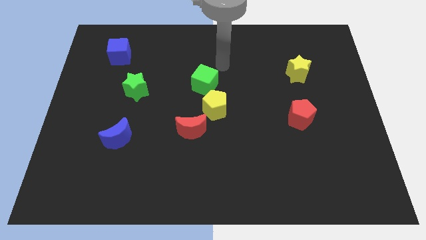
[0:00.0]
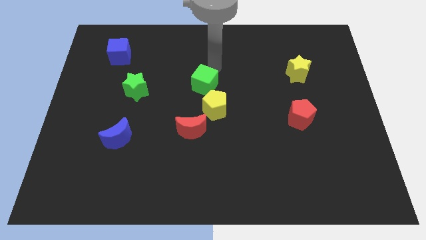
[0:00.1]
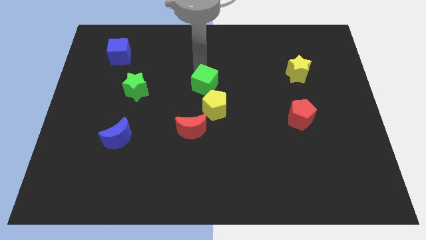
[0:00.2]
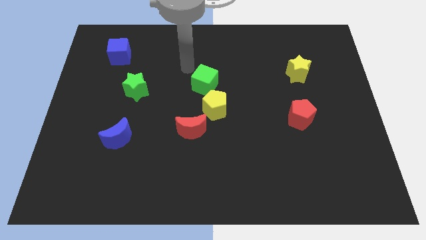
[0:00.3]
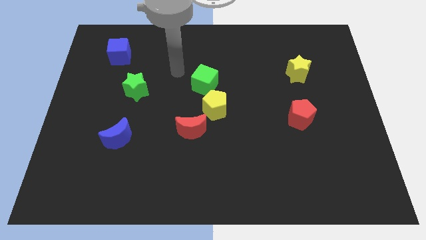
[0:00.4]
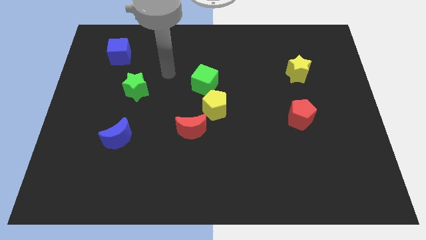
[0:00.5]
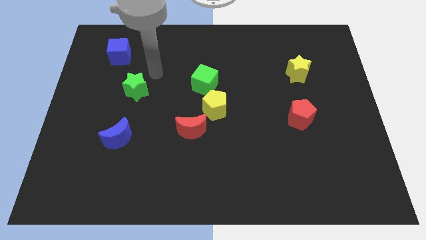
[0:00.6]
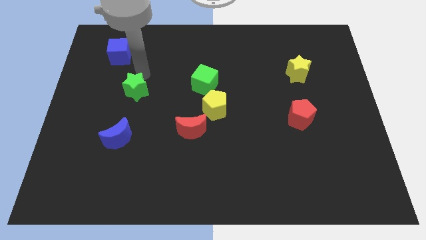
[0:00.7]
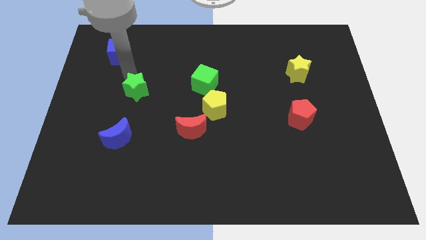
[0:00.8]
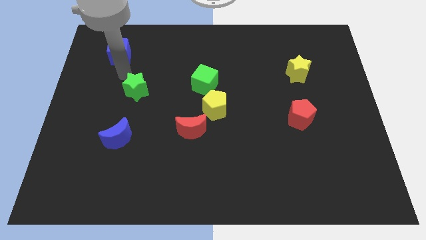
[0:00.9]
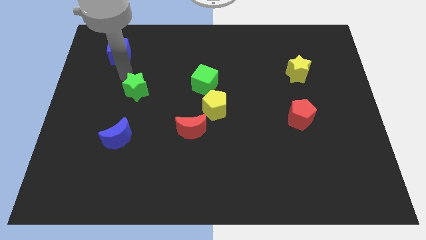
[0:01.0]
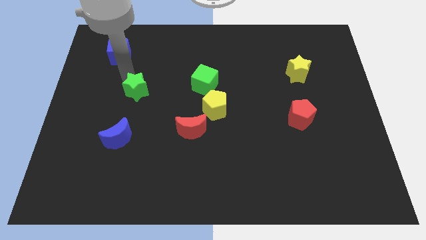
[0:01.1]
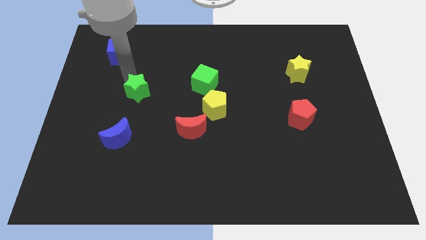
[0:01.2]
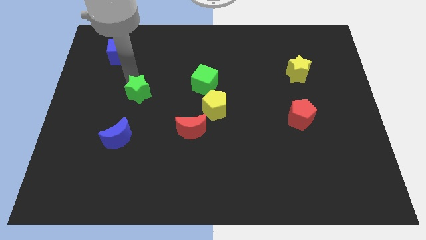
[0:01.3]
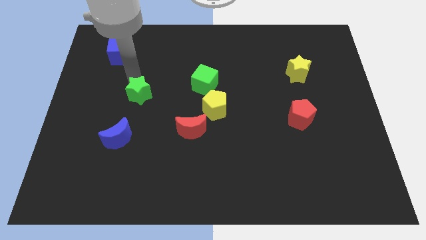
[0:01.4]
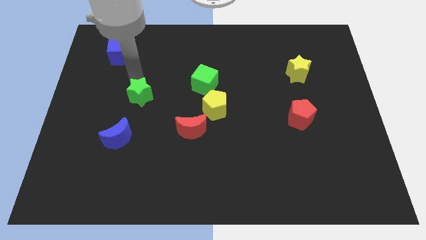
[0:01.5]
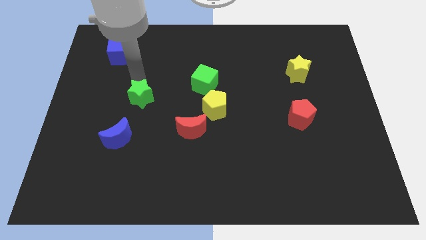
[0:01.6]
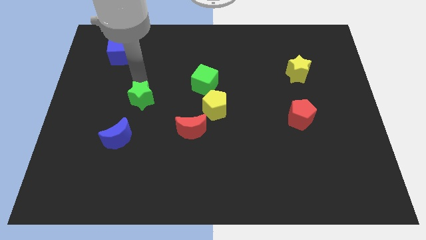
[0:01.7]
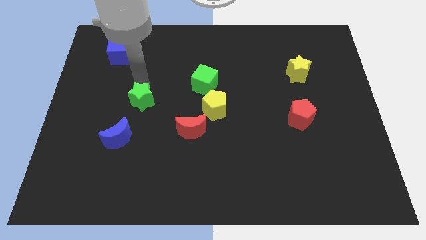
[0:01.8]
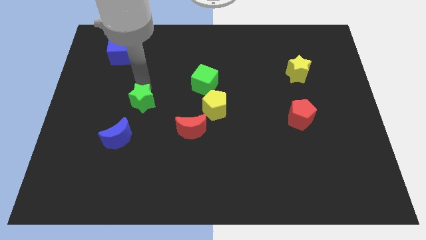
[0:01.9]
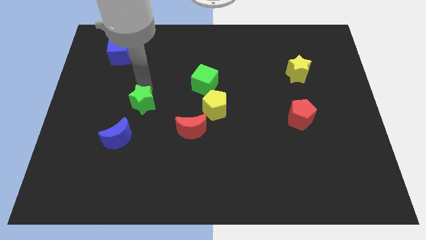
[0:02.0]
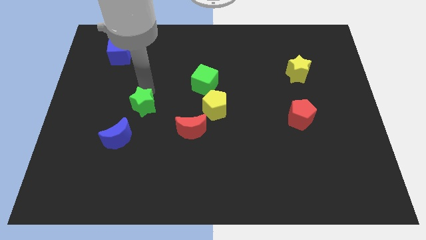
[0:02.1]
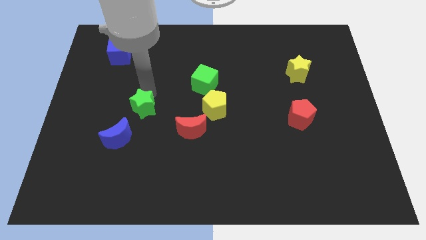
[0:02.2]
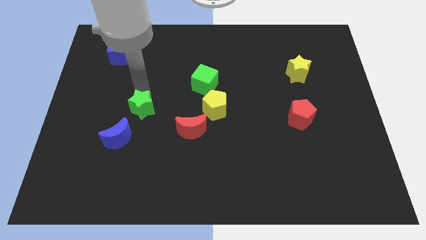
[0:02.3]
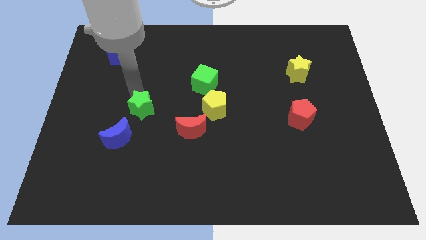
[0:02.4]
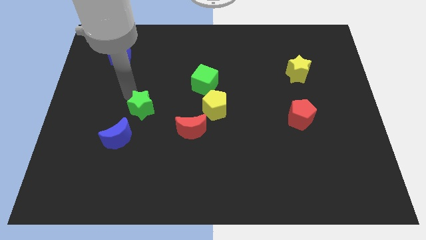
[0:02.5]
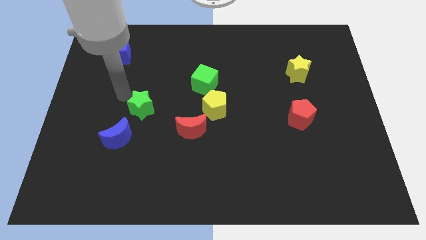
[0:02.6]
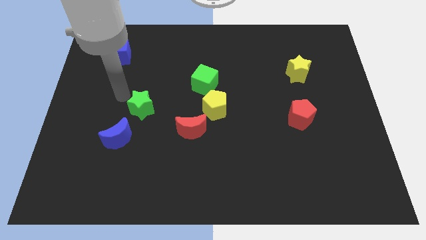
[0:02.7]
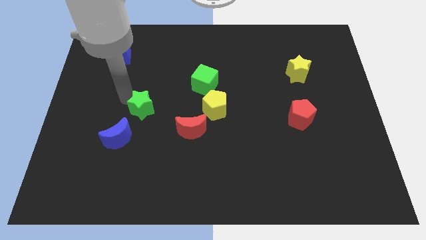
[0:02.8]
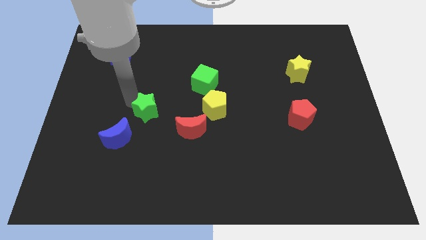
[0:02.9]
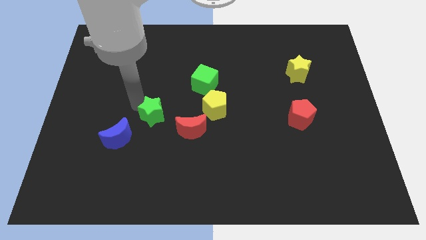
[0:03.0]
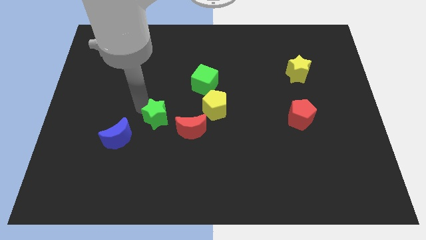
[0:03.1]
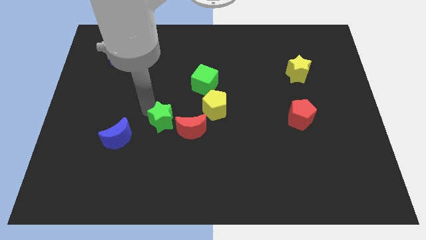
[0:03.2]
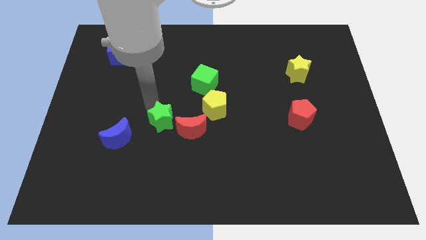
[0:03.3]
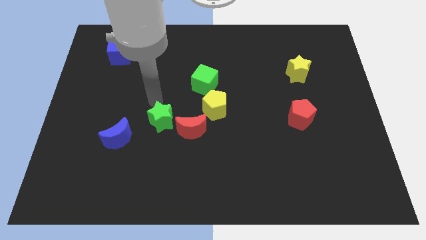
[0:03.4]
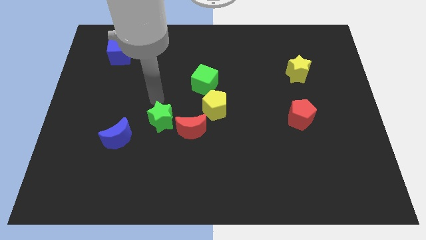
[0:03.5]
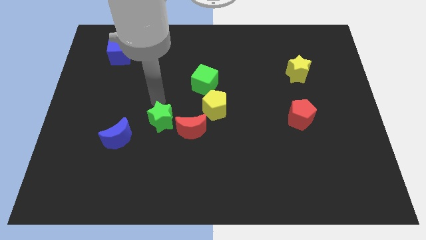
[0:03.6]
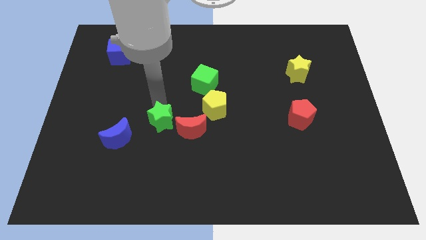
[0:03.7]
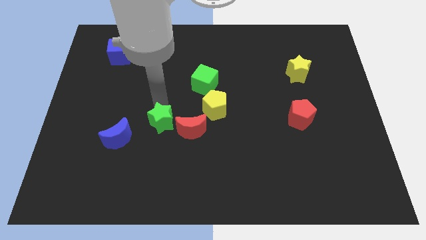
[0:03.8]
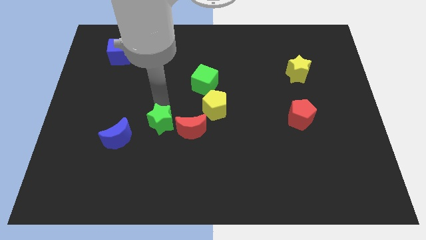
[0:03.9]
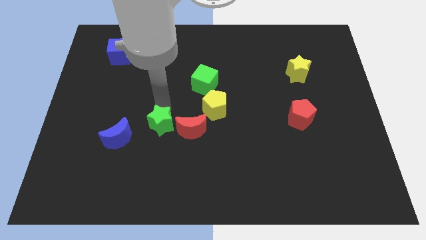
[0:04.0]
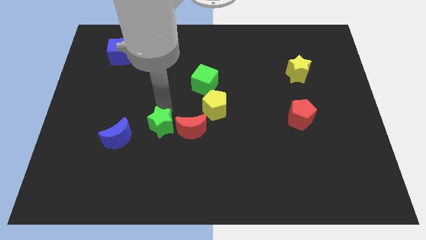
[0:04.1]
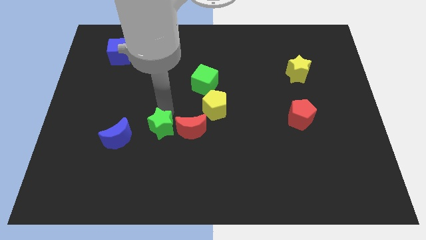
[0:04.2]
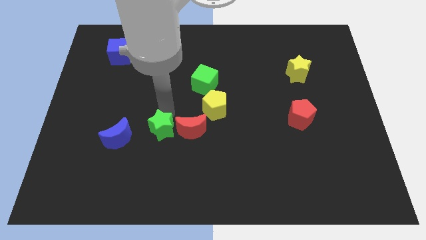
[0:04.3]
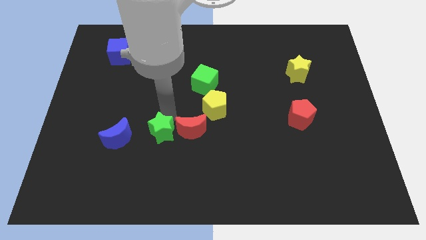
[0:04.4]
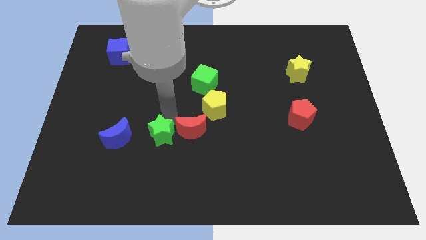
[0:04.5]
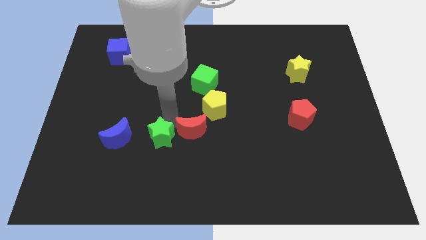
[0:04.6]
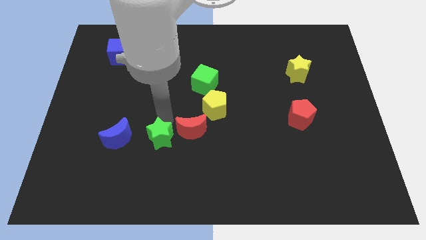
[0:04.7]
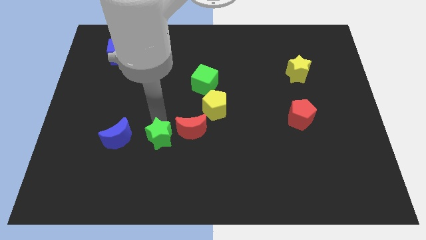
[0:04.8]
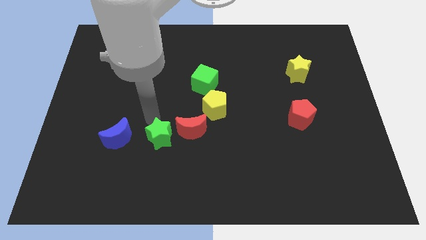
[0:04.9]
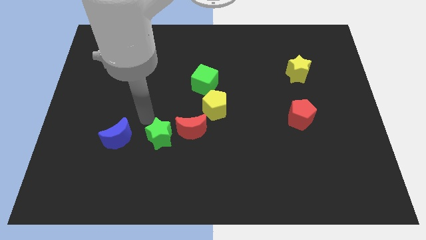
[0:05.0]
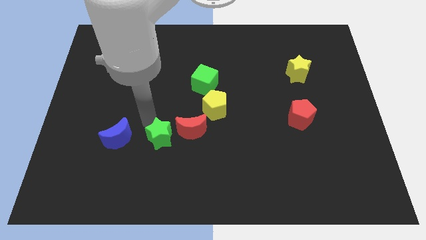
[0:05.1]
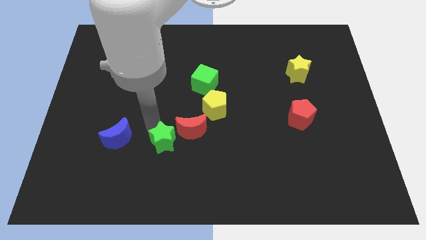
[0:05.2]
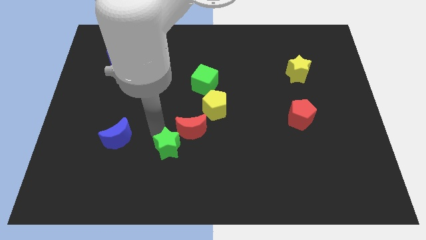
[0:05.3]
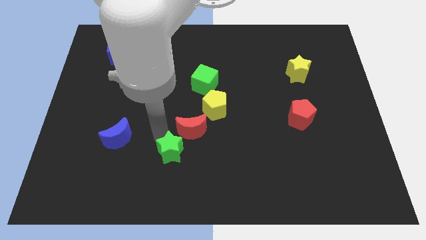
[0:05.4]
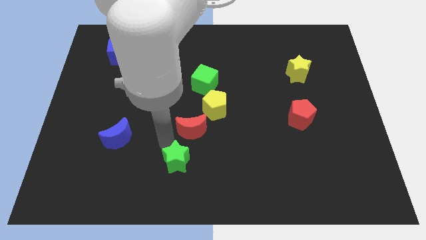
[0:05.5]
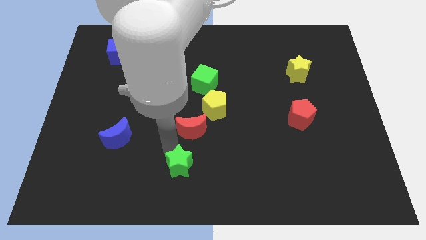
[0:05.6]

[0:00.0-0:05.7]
move the green star to the bottom
